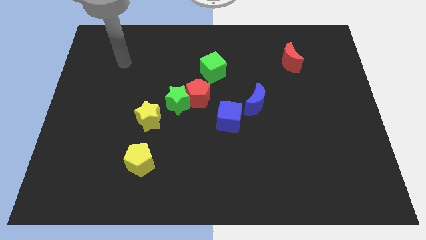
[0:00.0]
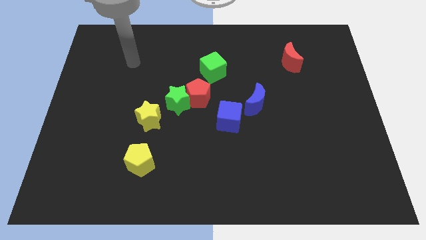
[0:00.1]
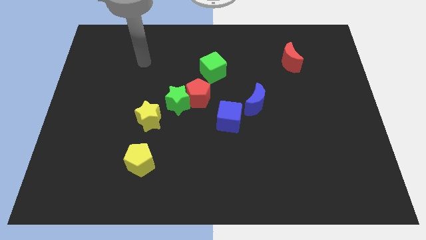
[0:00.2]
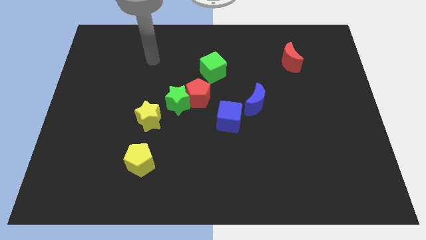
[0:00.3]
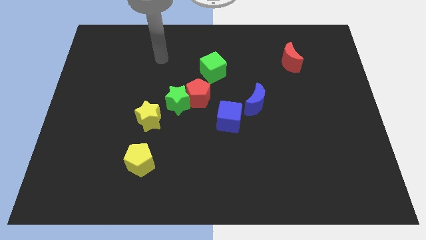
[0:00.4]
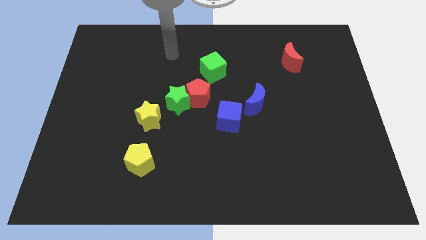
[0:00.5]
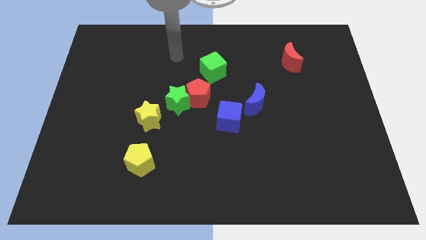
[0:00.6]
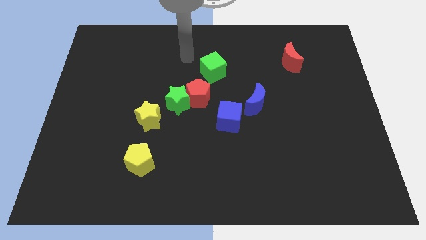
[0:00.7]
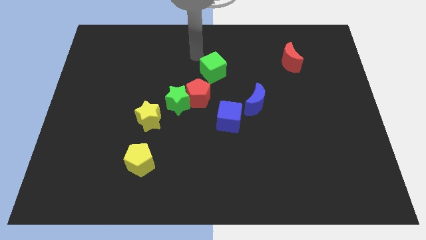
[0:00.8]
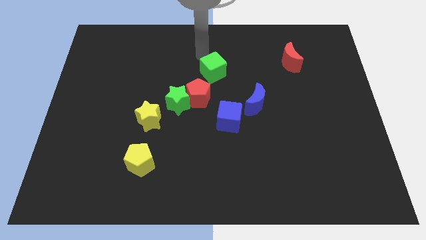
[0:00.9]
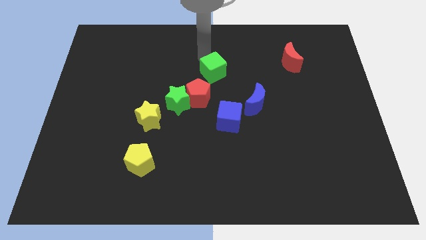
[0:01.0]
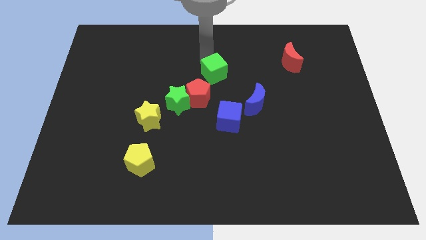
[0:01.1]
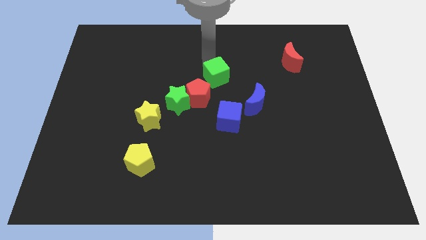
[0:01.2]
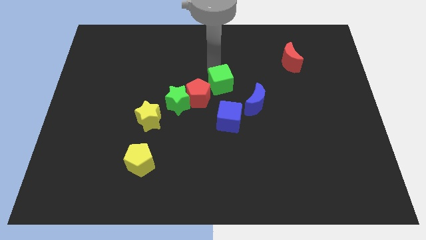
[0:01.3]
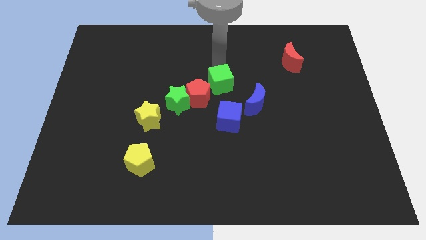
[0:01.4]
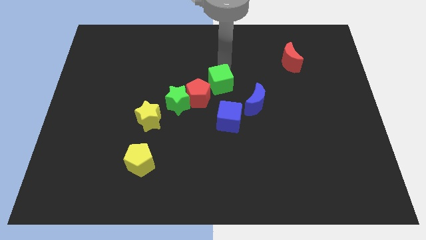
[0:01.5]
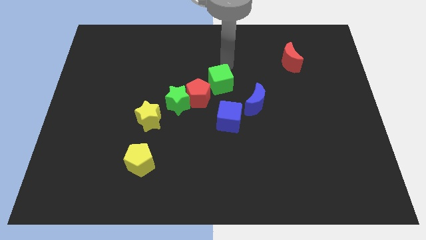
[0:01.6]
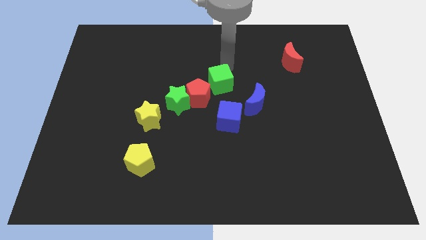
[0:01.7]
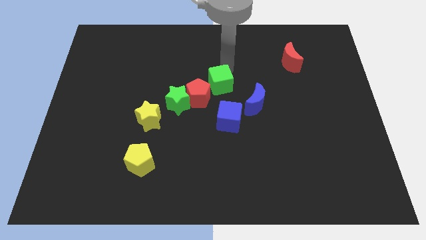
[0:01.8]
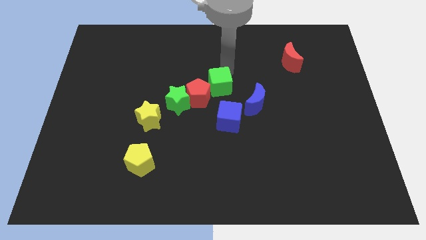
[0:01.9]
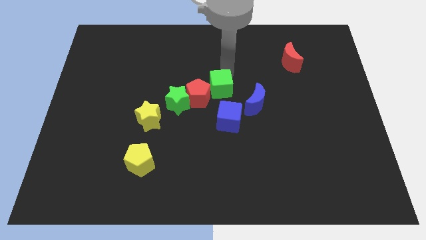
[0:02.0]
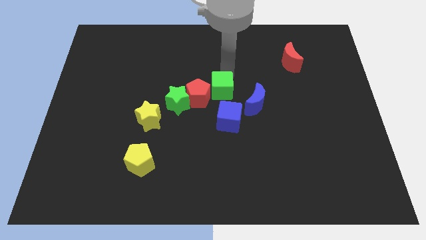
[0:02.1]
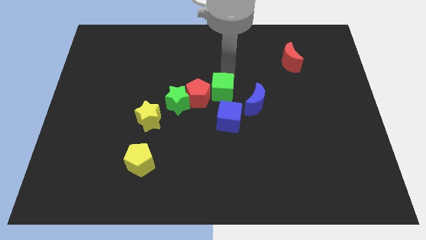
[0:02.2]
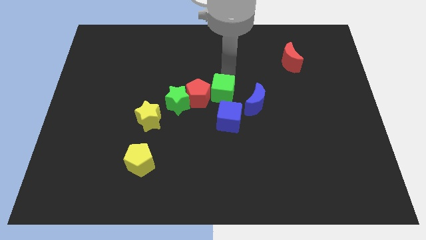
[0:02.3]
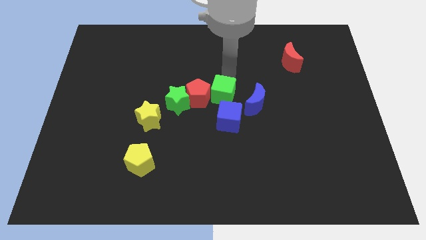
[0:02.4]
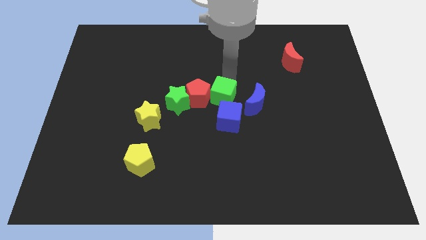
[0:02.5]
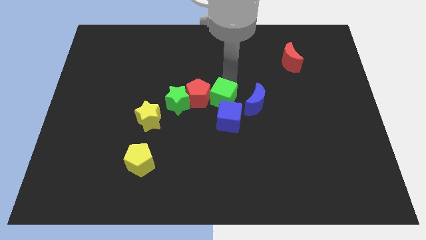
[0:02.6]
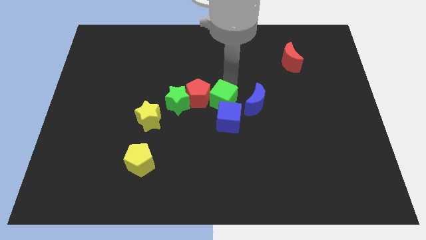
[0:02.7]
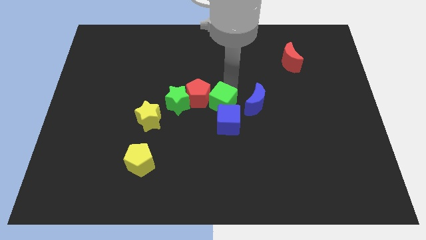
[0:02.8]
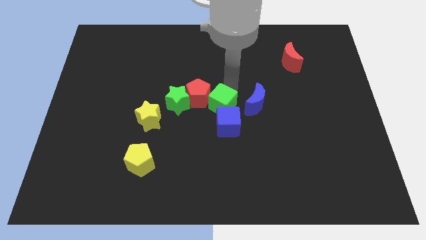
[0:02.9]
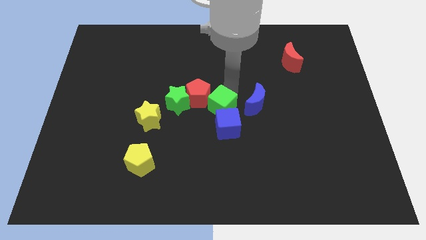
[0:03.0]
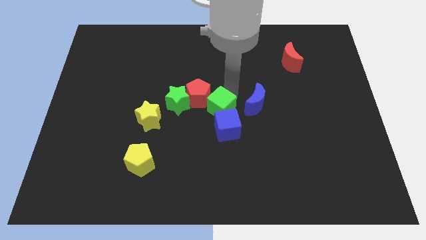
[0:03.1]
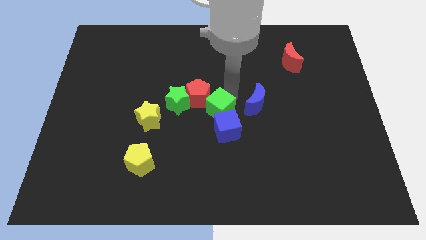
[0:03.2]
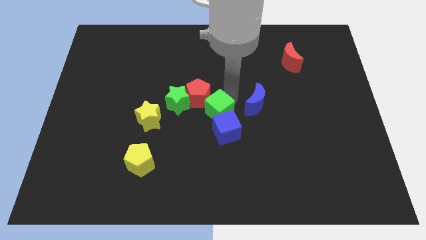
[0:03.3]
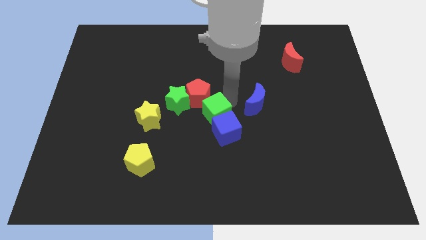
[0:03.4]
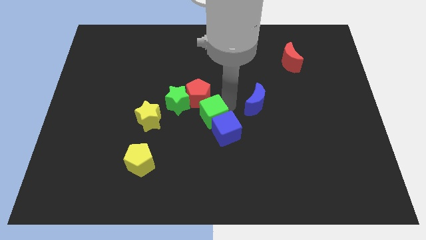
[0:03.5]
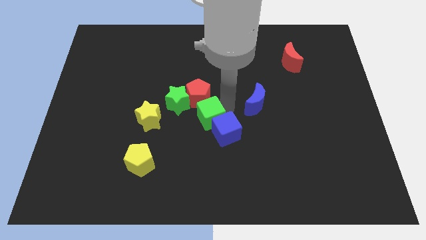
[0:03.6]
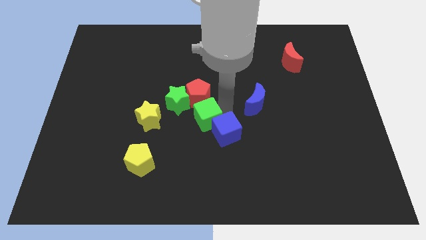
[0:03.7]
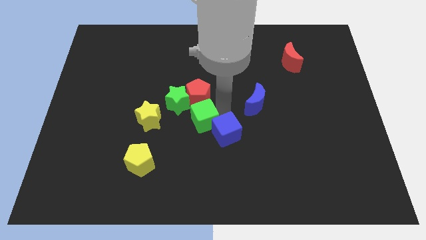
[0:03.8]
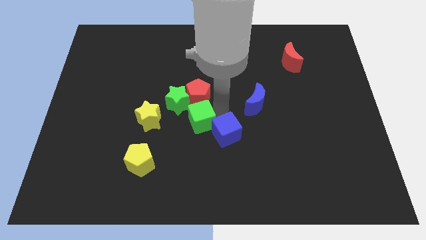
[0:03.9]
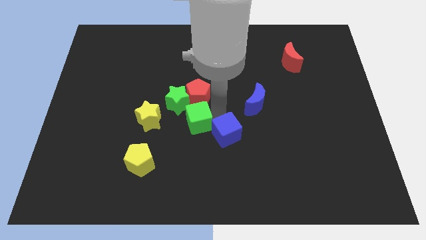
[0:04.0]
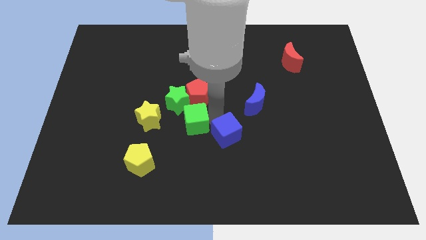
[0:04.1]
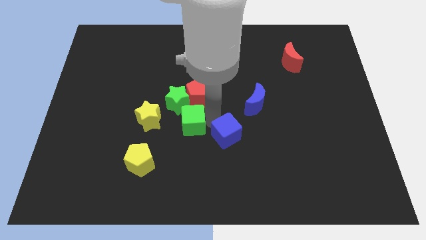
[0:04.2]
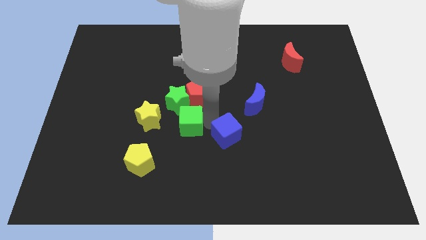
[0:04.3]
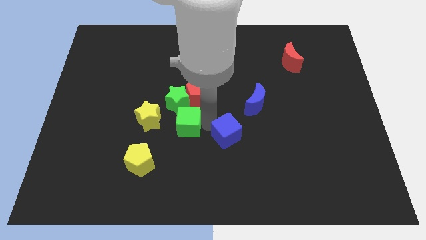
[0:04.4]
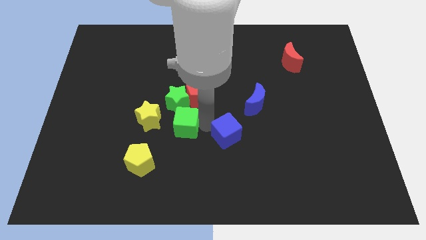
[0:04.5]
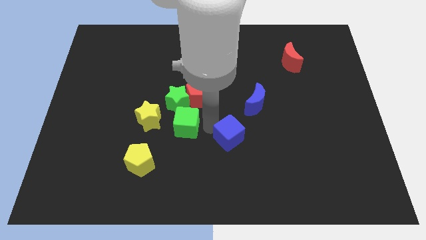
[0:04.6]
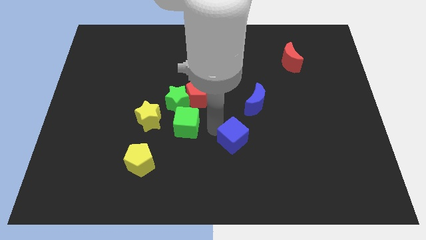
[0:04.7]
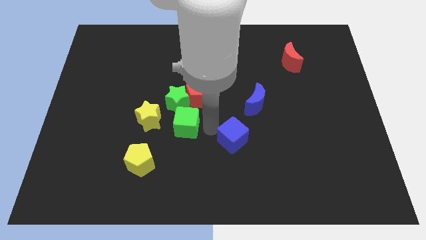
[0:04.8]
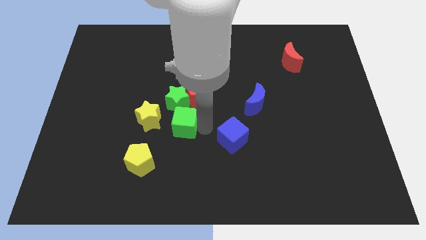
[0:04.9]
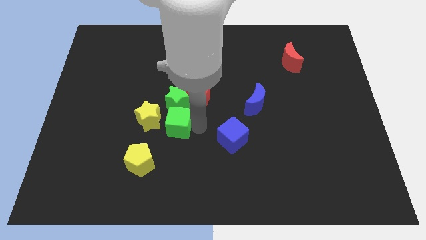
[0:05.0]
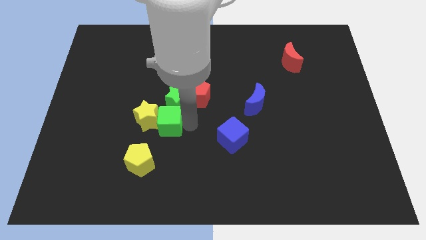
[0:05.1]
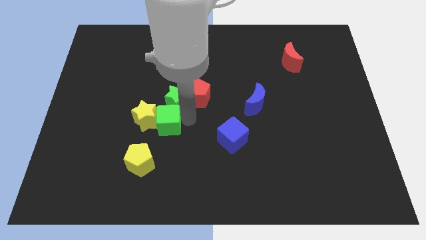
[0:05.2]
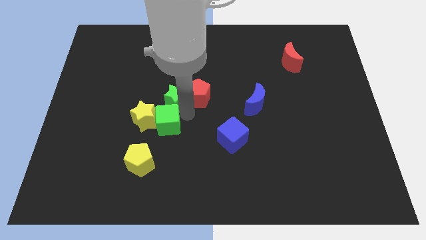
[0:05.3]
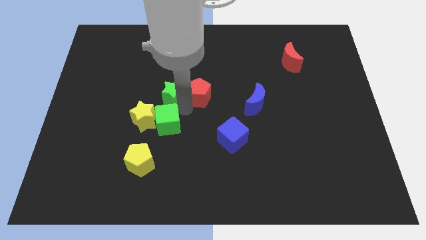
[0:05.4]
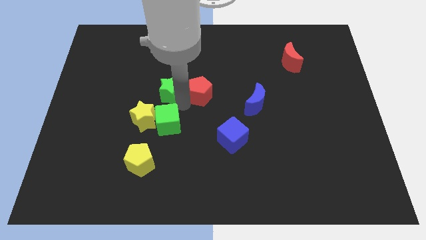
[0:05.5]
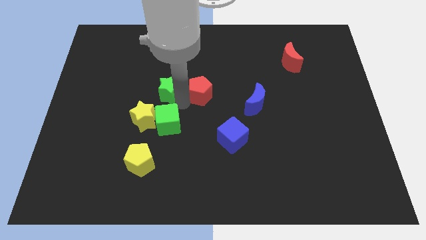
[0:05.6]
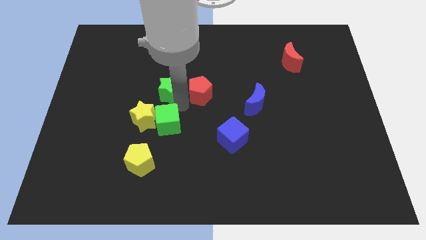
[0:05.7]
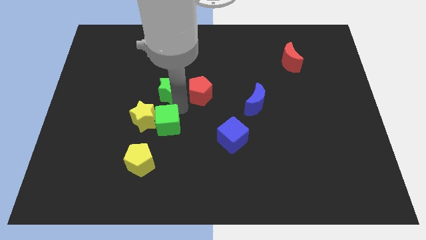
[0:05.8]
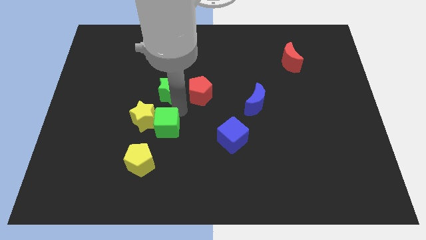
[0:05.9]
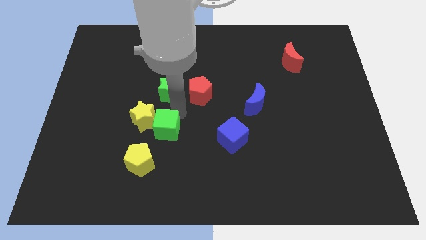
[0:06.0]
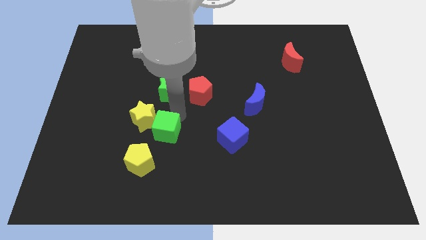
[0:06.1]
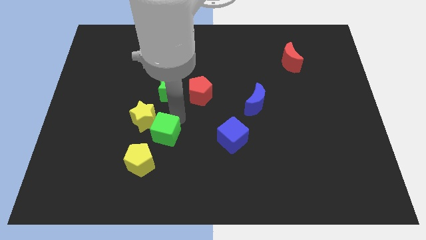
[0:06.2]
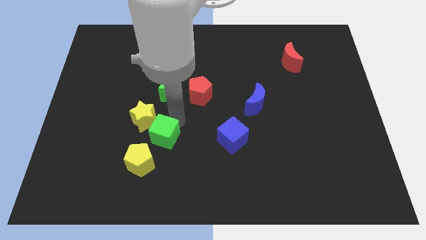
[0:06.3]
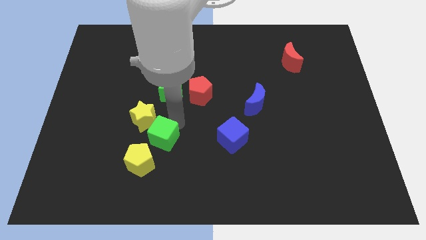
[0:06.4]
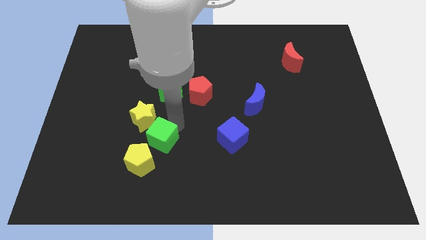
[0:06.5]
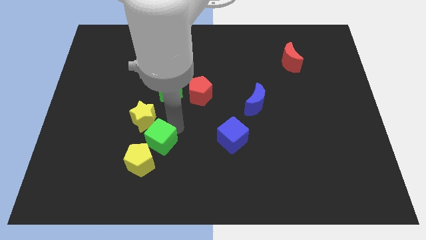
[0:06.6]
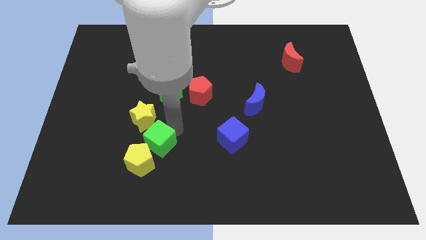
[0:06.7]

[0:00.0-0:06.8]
slide the green cube towards the yellow pentagon
